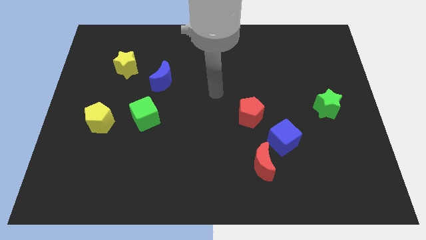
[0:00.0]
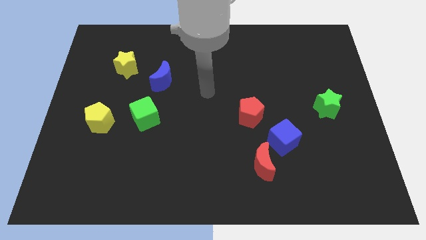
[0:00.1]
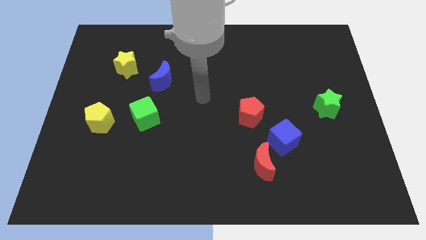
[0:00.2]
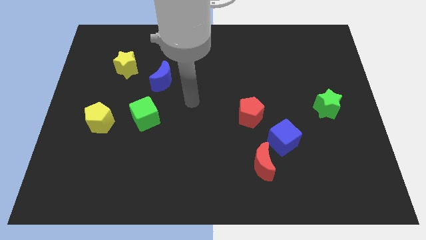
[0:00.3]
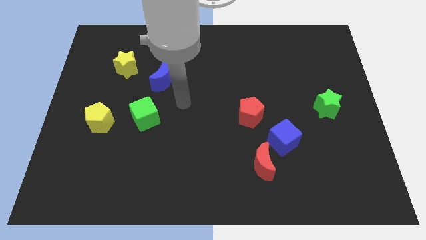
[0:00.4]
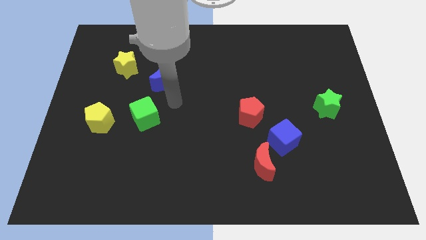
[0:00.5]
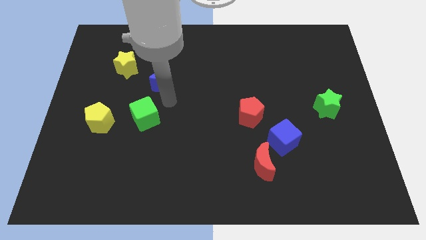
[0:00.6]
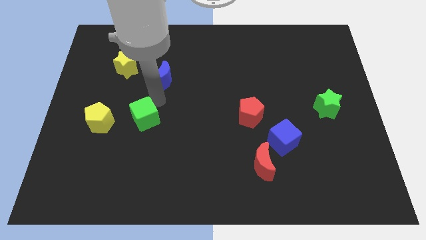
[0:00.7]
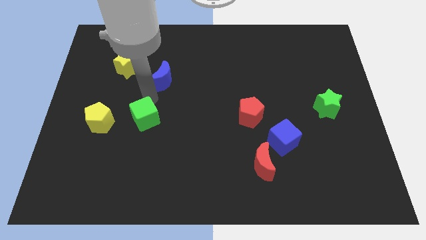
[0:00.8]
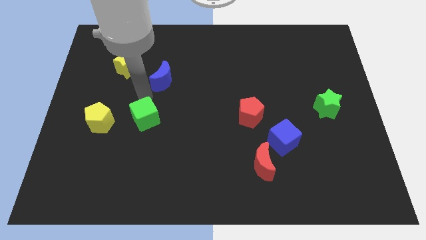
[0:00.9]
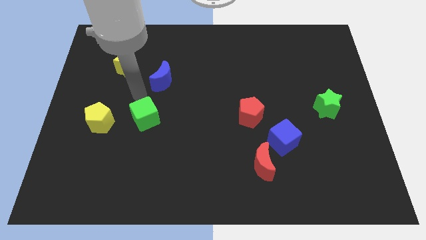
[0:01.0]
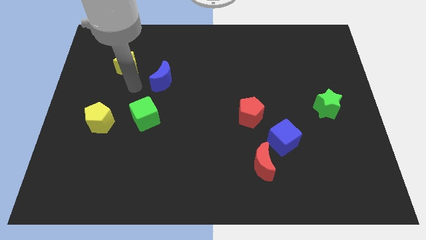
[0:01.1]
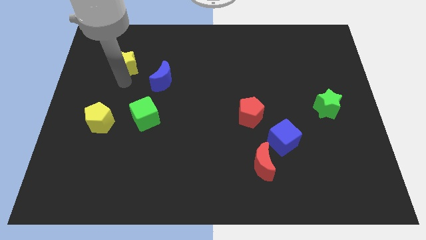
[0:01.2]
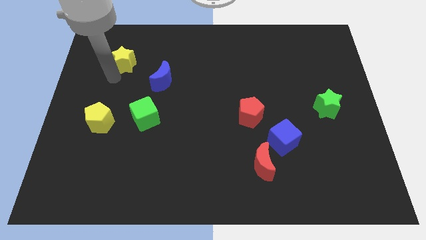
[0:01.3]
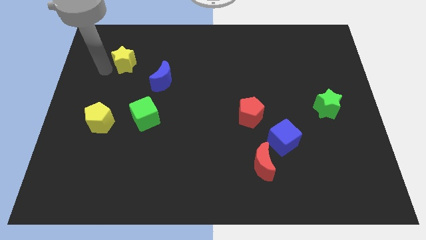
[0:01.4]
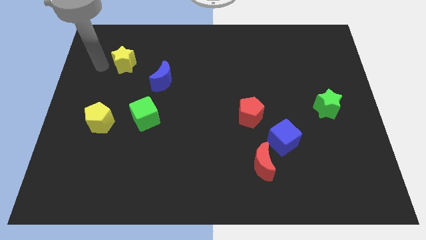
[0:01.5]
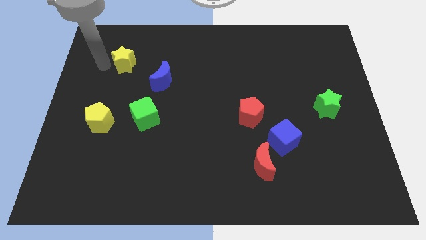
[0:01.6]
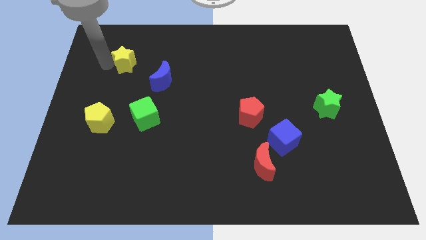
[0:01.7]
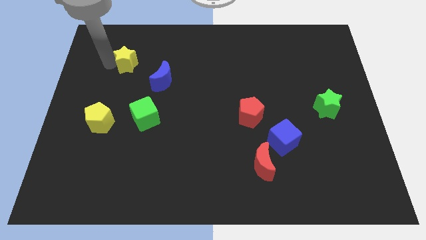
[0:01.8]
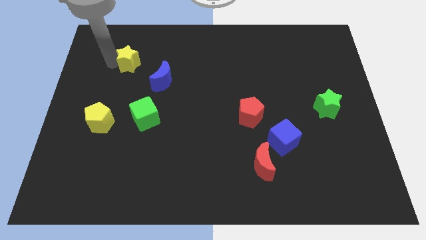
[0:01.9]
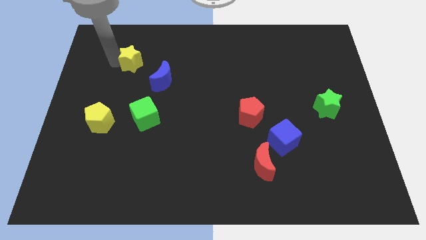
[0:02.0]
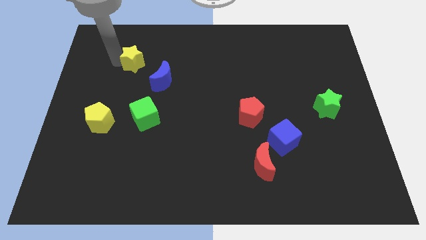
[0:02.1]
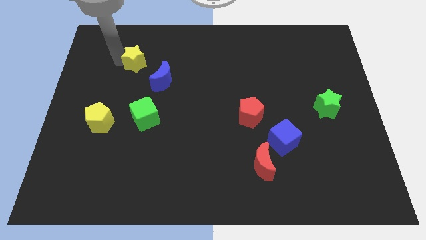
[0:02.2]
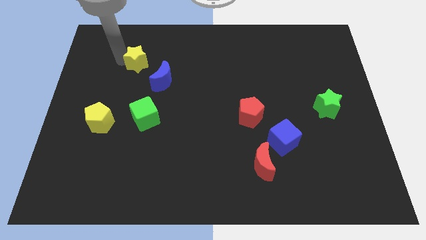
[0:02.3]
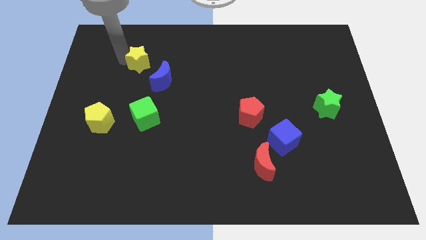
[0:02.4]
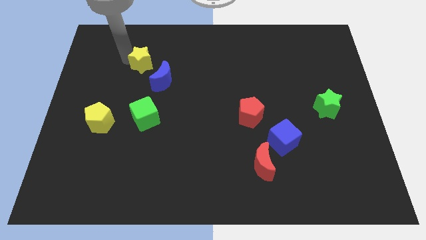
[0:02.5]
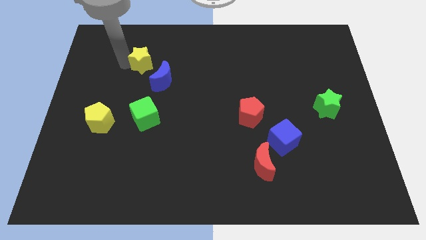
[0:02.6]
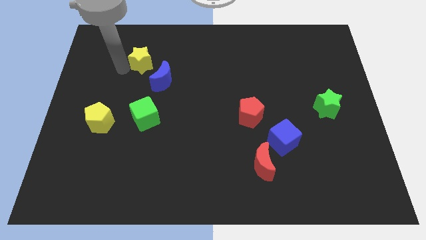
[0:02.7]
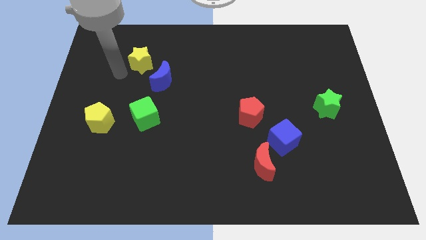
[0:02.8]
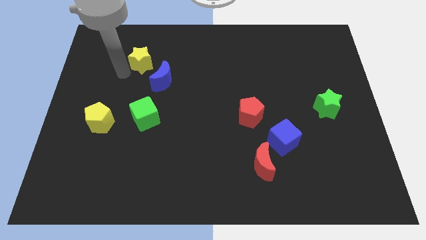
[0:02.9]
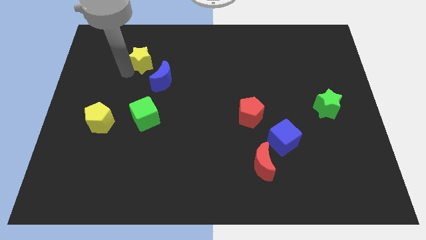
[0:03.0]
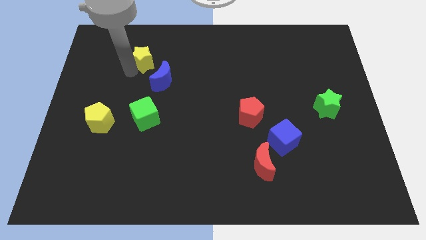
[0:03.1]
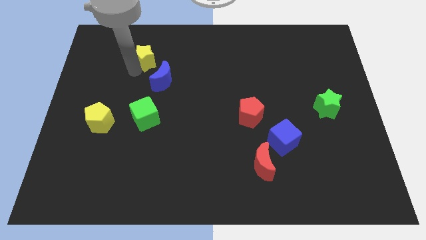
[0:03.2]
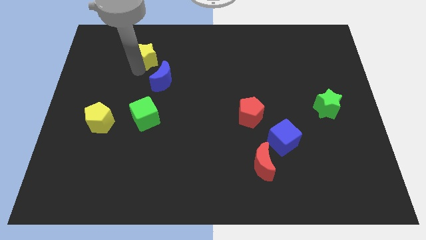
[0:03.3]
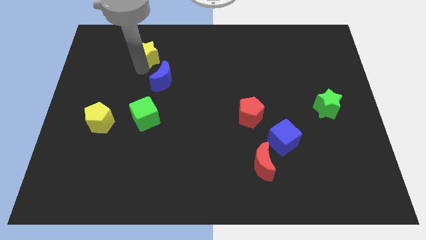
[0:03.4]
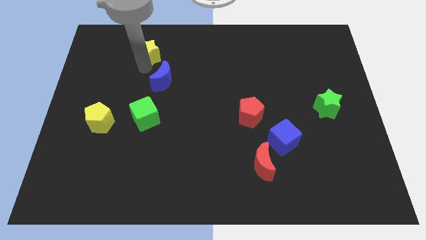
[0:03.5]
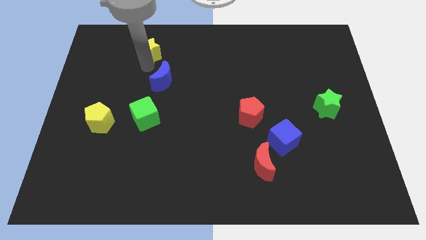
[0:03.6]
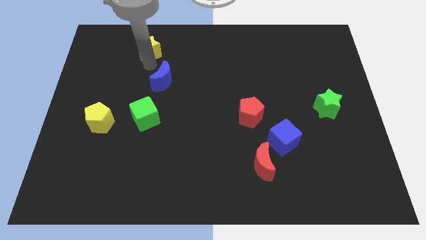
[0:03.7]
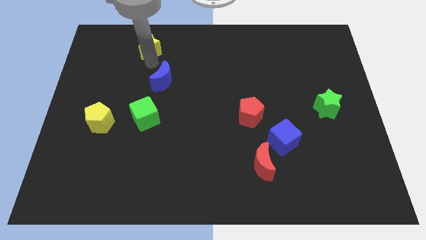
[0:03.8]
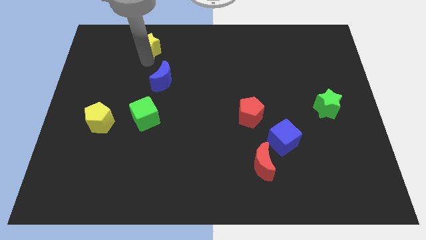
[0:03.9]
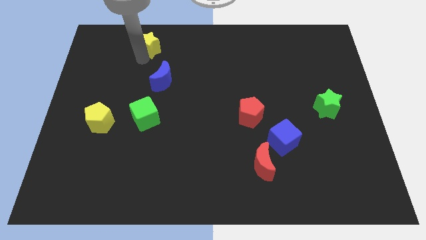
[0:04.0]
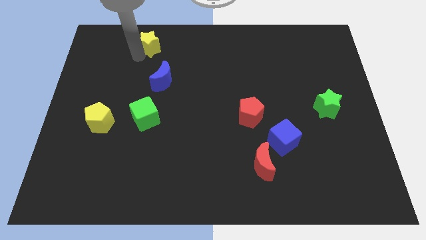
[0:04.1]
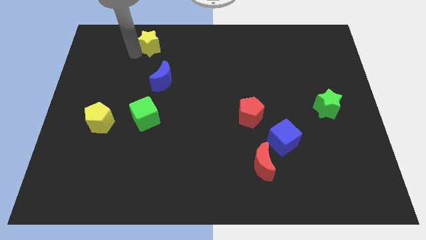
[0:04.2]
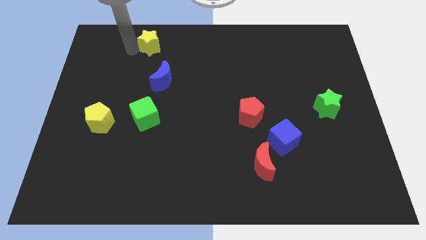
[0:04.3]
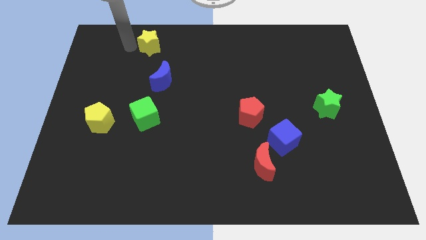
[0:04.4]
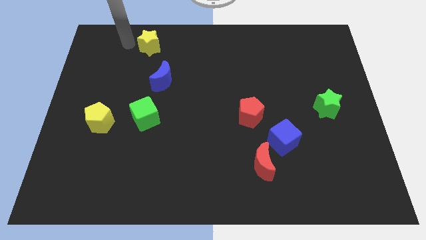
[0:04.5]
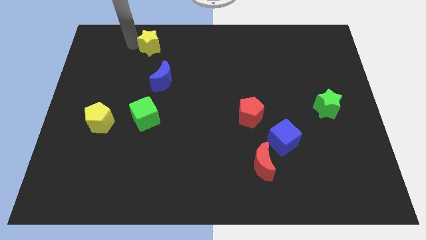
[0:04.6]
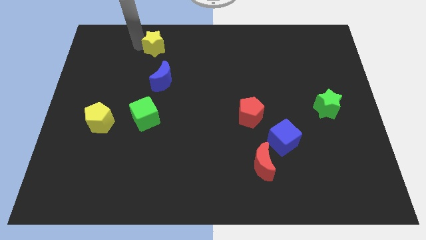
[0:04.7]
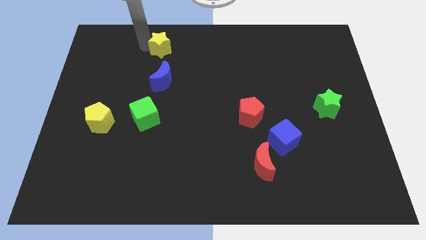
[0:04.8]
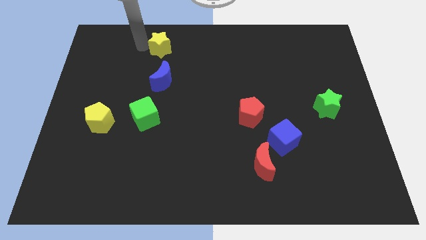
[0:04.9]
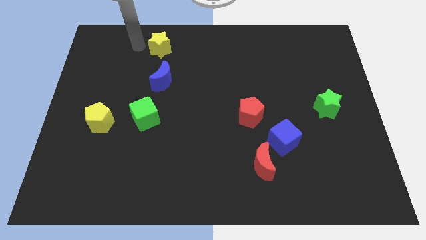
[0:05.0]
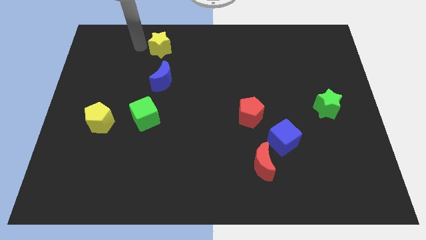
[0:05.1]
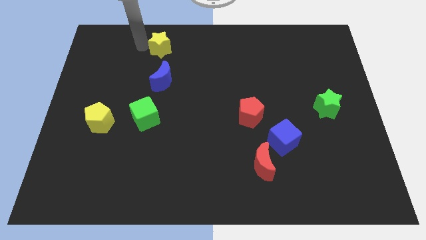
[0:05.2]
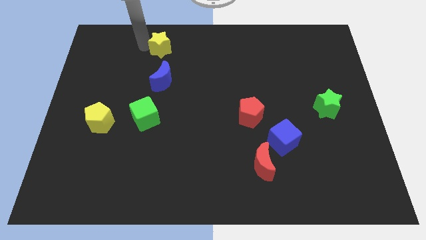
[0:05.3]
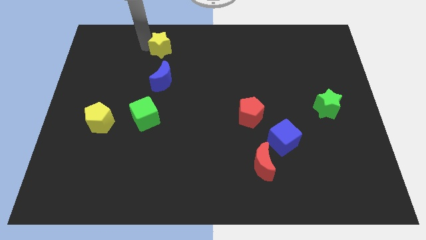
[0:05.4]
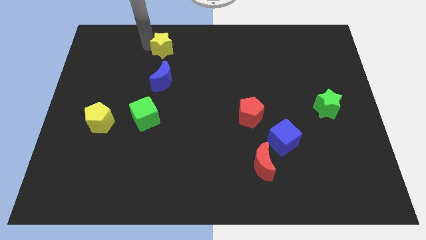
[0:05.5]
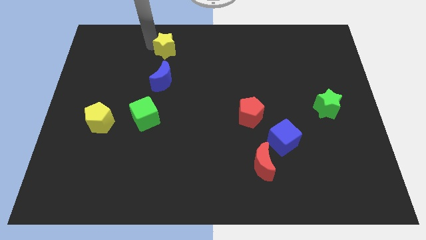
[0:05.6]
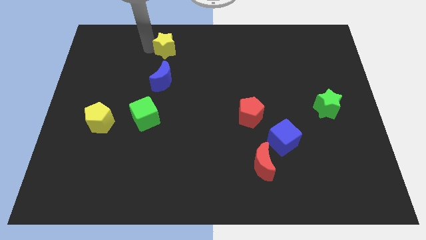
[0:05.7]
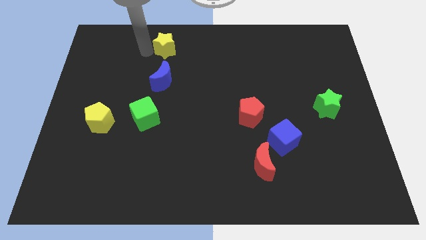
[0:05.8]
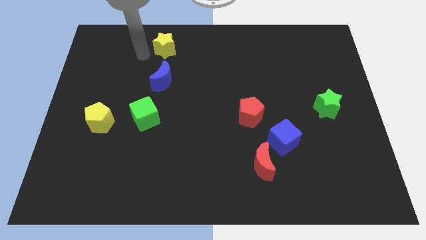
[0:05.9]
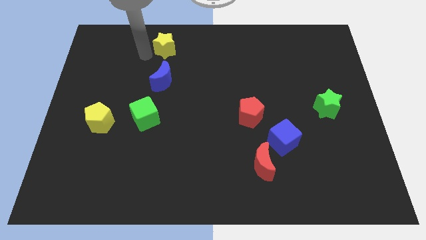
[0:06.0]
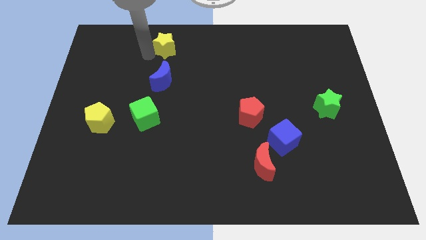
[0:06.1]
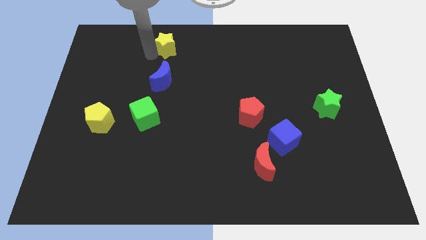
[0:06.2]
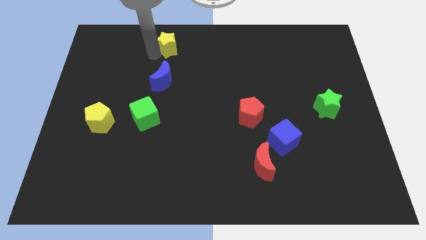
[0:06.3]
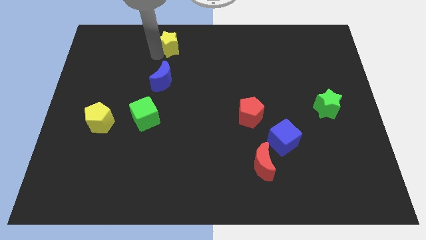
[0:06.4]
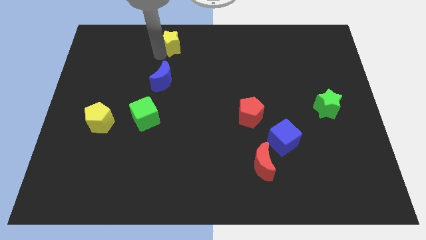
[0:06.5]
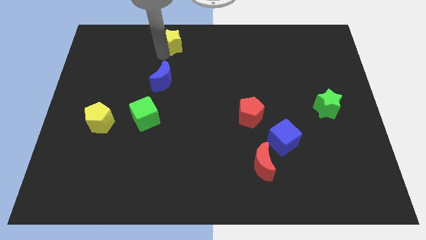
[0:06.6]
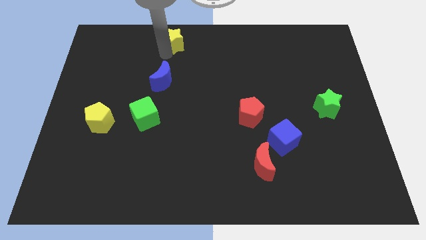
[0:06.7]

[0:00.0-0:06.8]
push the yellow star to the towards your base
